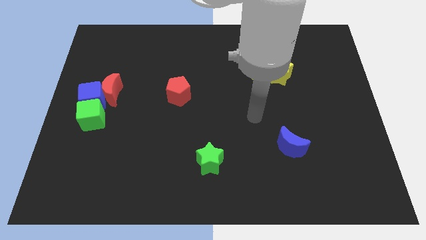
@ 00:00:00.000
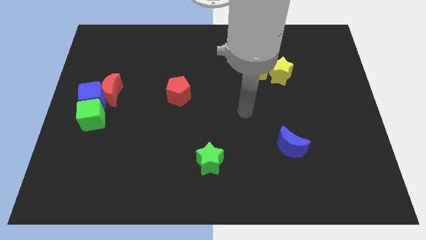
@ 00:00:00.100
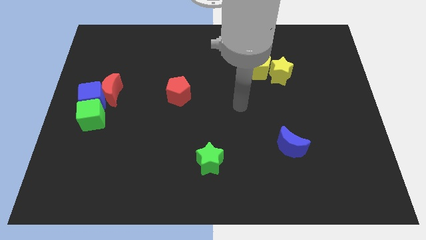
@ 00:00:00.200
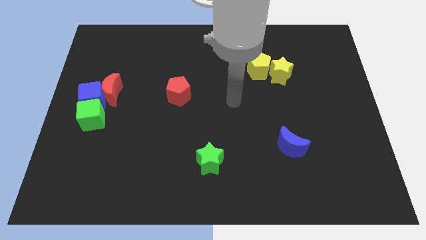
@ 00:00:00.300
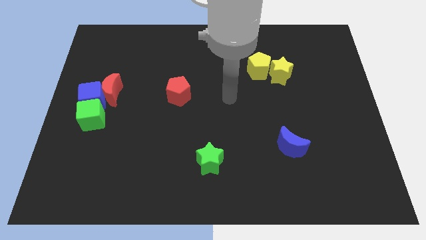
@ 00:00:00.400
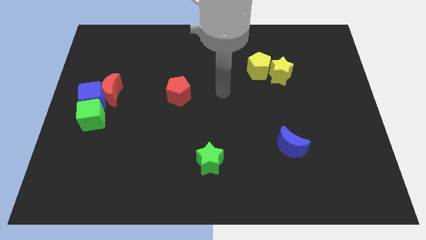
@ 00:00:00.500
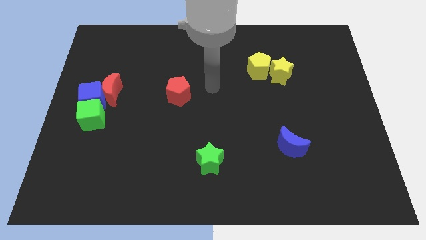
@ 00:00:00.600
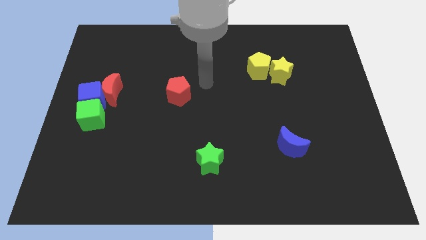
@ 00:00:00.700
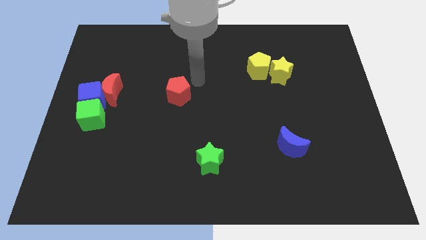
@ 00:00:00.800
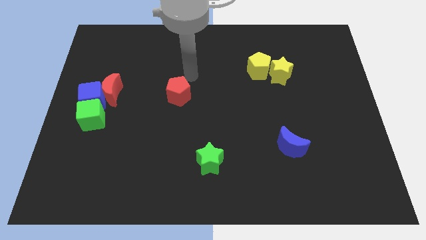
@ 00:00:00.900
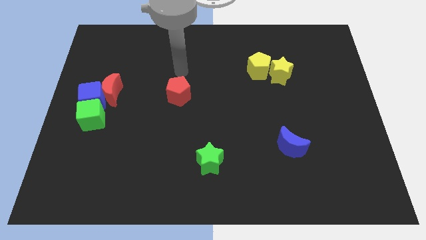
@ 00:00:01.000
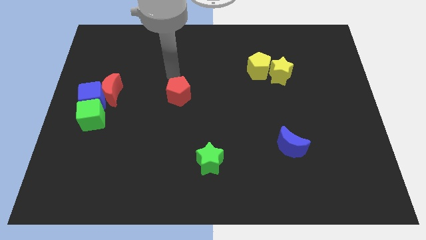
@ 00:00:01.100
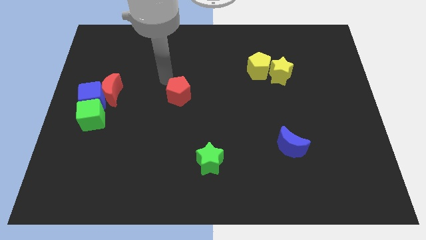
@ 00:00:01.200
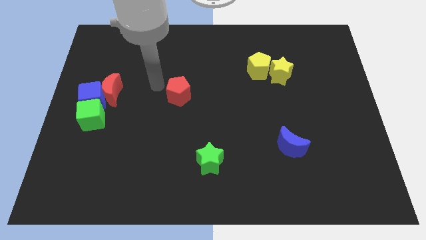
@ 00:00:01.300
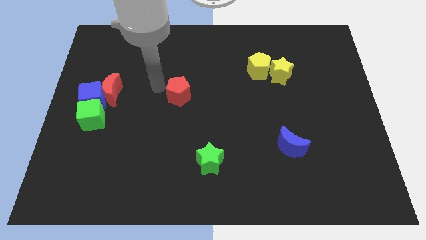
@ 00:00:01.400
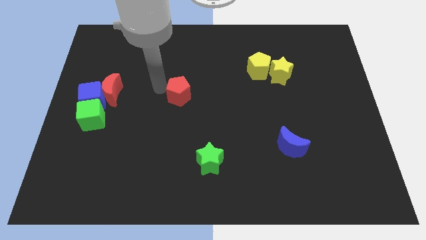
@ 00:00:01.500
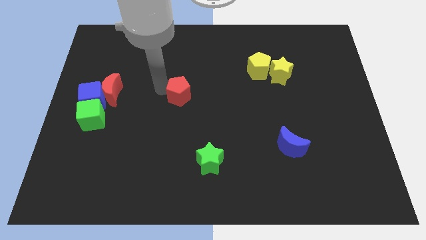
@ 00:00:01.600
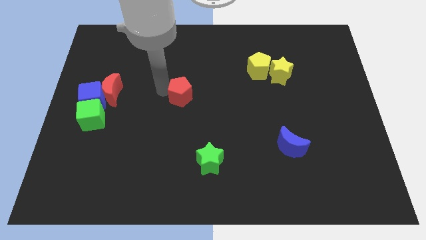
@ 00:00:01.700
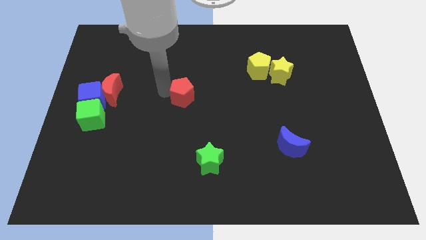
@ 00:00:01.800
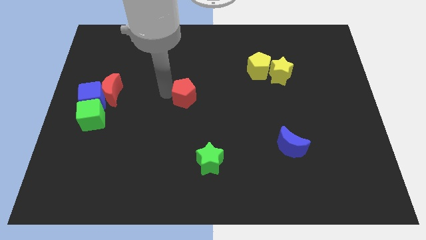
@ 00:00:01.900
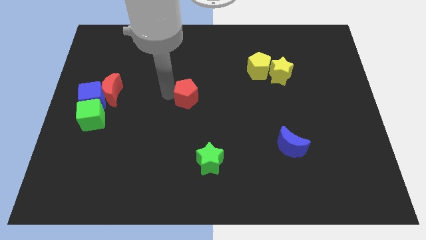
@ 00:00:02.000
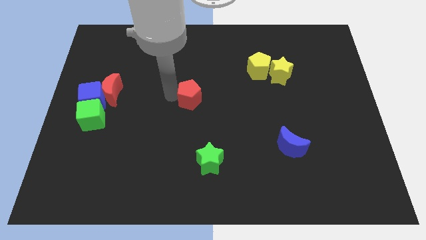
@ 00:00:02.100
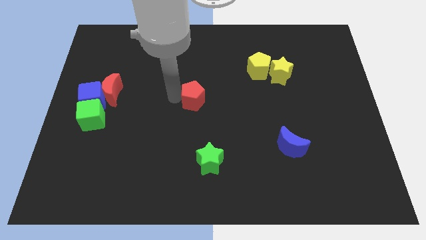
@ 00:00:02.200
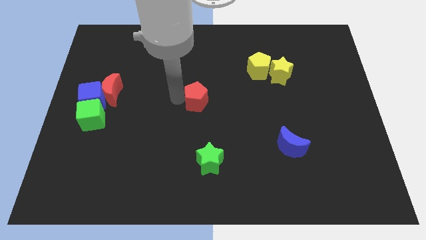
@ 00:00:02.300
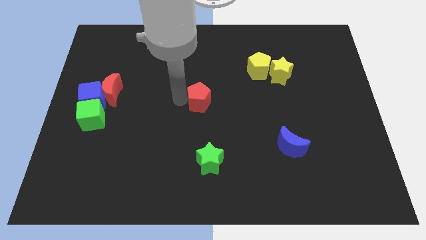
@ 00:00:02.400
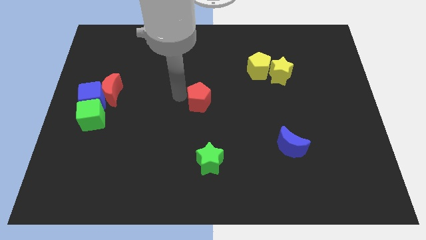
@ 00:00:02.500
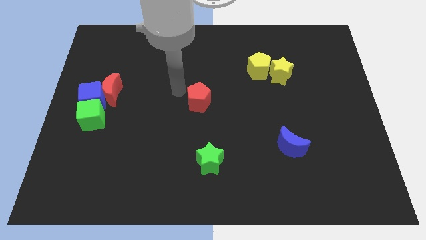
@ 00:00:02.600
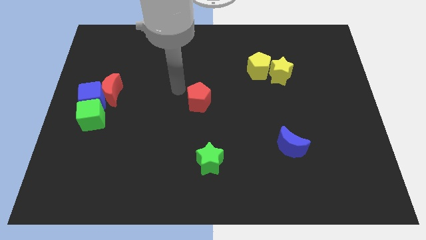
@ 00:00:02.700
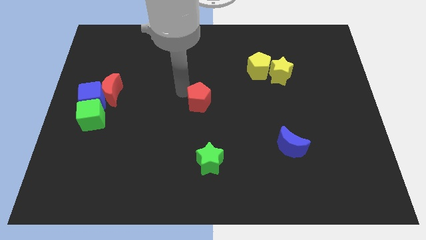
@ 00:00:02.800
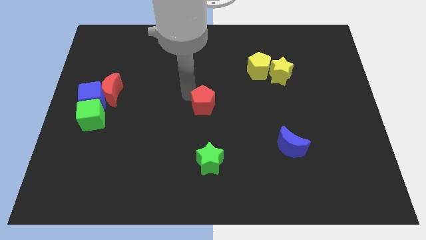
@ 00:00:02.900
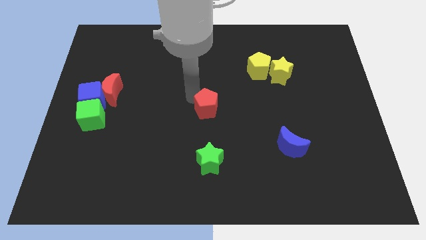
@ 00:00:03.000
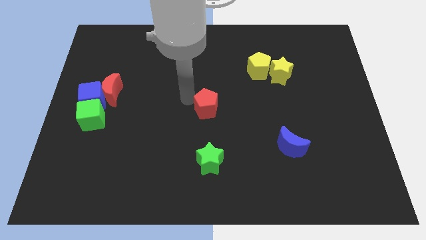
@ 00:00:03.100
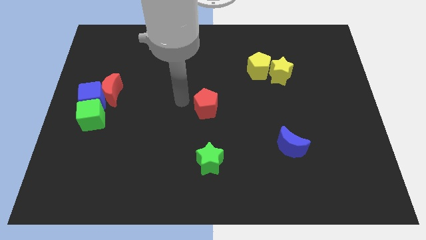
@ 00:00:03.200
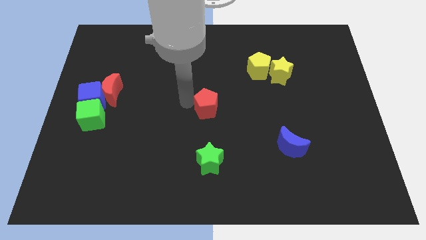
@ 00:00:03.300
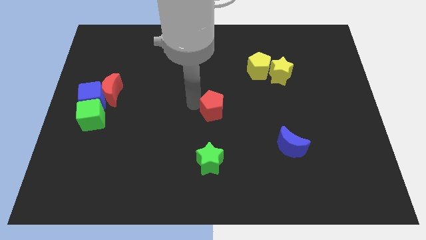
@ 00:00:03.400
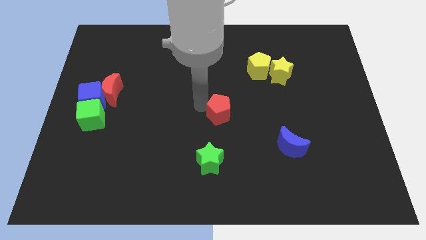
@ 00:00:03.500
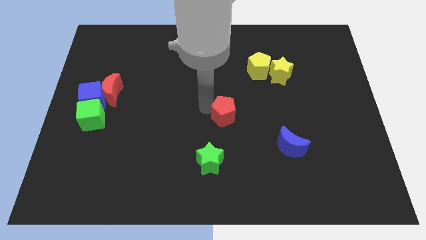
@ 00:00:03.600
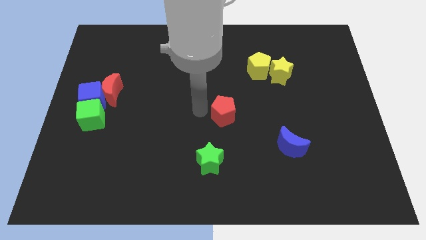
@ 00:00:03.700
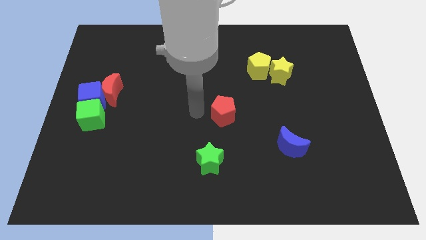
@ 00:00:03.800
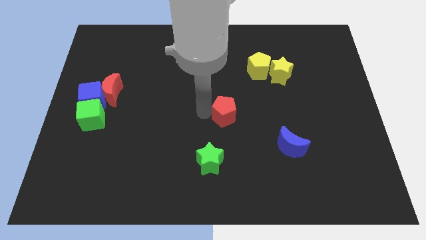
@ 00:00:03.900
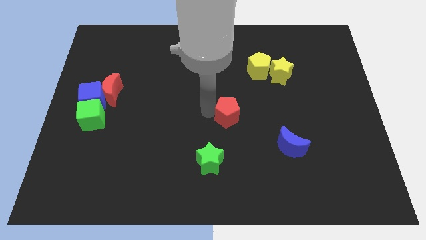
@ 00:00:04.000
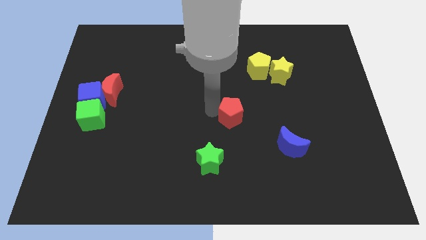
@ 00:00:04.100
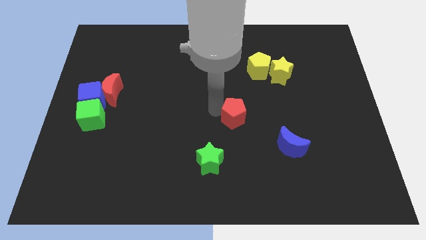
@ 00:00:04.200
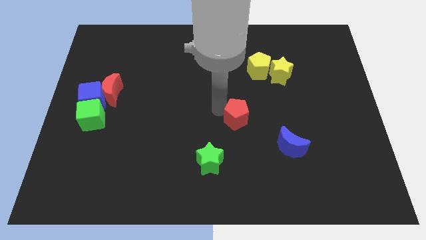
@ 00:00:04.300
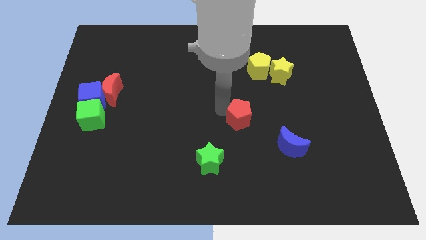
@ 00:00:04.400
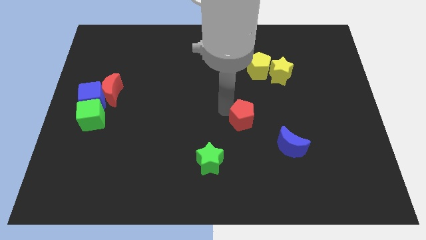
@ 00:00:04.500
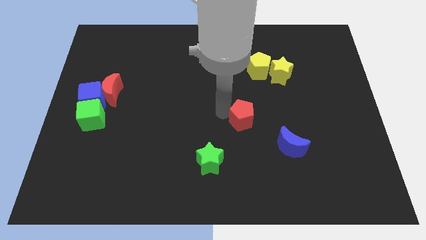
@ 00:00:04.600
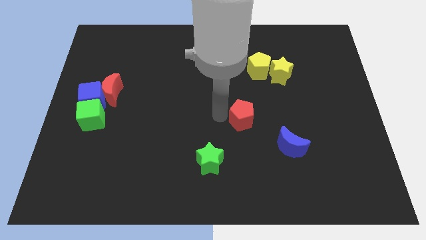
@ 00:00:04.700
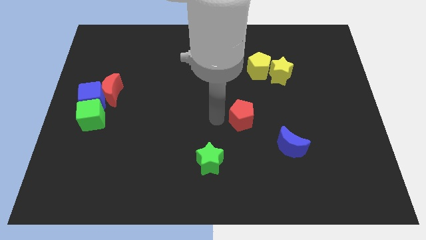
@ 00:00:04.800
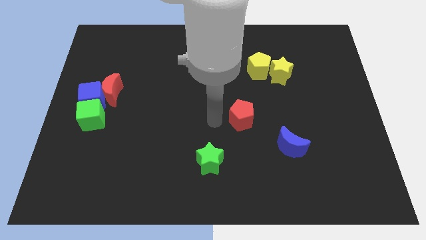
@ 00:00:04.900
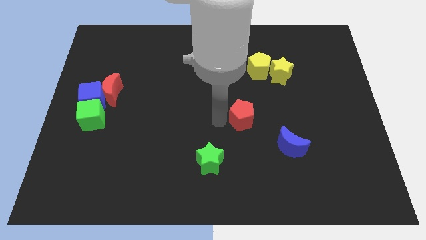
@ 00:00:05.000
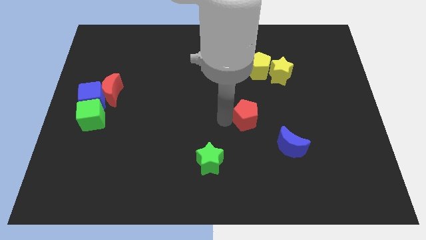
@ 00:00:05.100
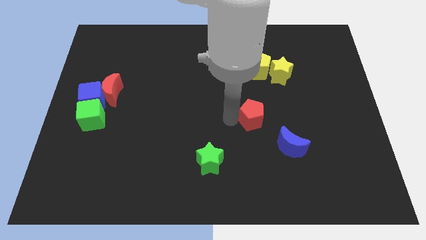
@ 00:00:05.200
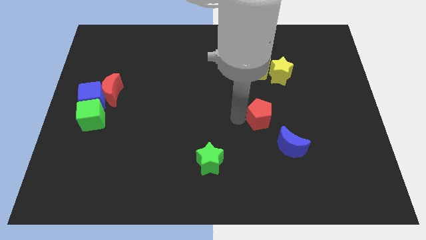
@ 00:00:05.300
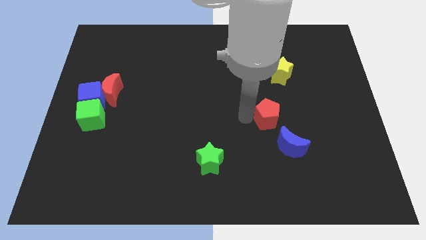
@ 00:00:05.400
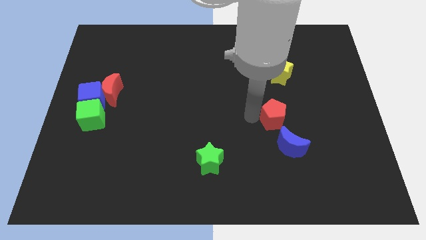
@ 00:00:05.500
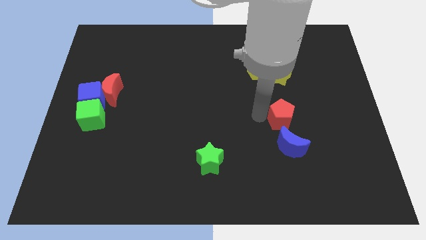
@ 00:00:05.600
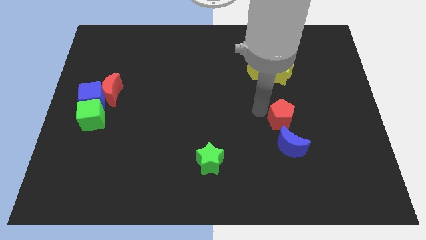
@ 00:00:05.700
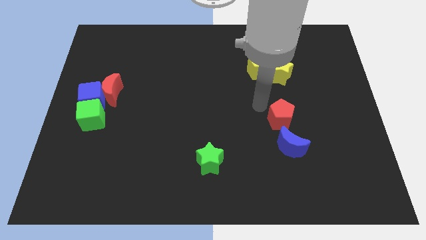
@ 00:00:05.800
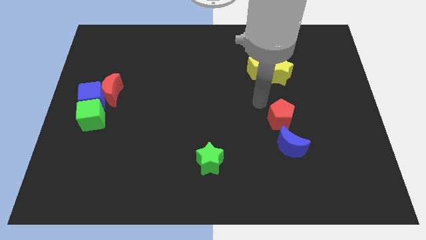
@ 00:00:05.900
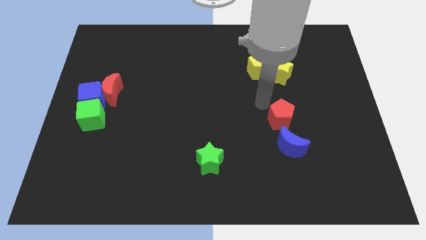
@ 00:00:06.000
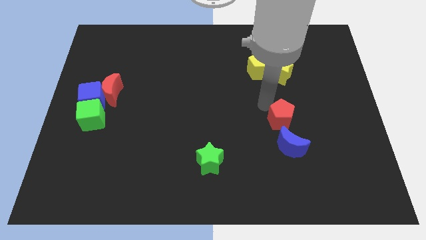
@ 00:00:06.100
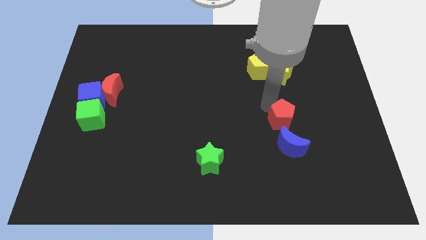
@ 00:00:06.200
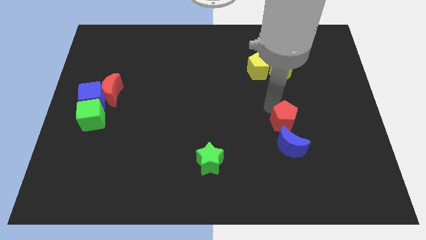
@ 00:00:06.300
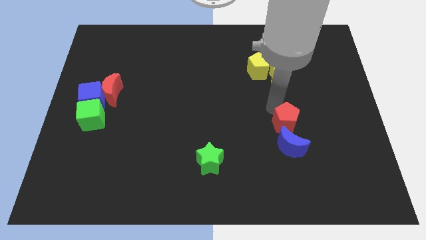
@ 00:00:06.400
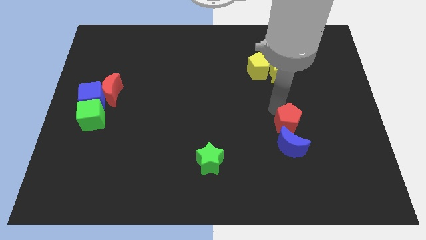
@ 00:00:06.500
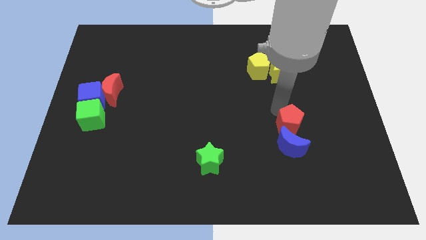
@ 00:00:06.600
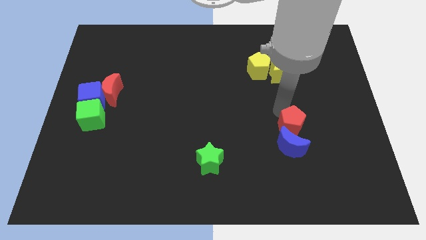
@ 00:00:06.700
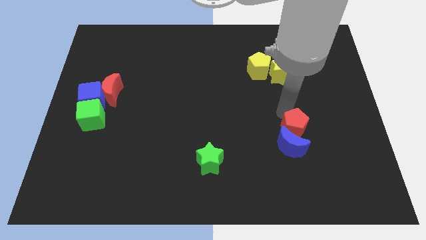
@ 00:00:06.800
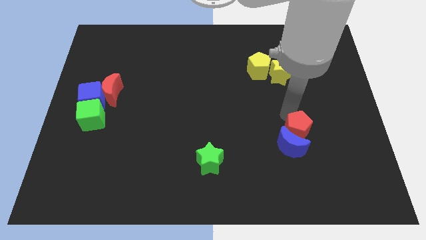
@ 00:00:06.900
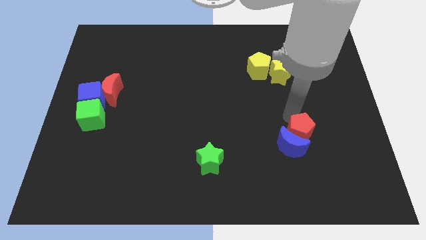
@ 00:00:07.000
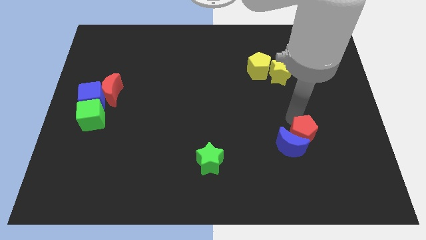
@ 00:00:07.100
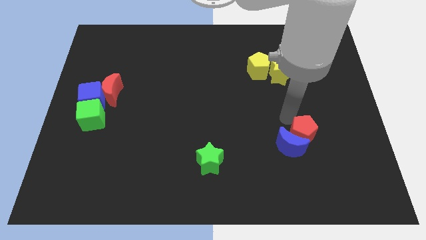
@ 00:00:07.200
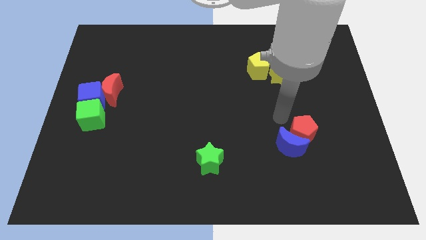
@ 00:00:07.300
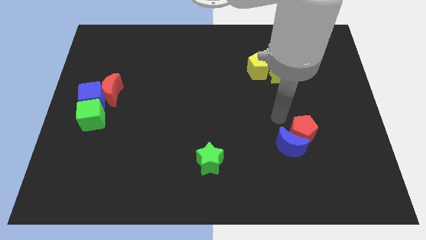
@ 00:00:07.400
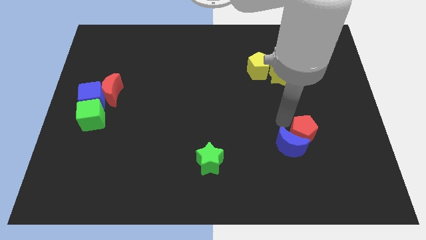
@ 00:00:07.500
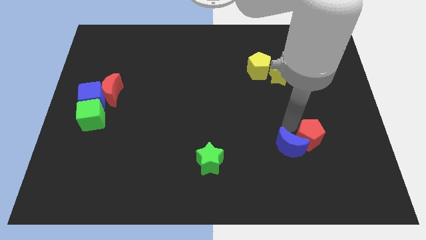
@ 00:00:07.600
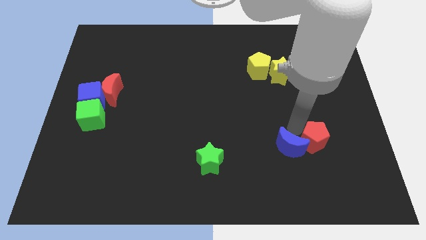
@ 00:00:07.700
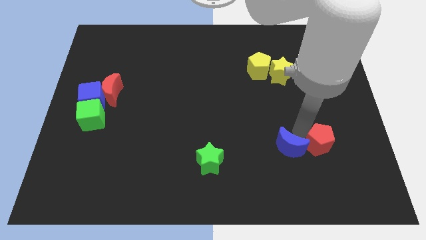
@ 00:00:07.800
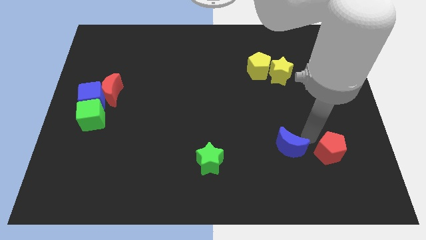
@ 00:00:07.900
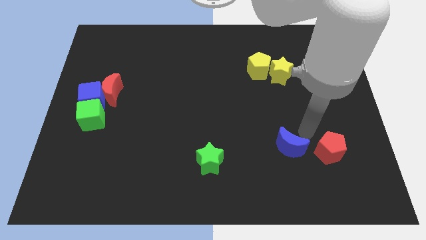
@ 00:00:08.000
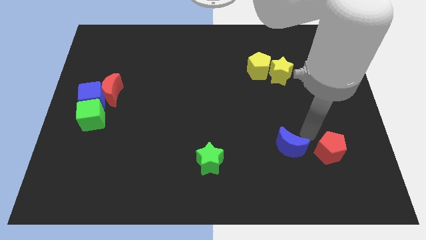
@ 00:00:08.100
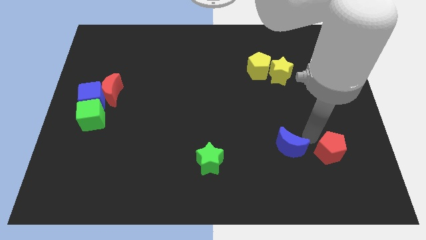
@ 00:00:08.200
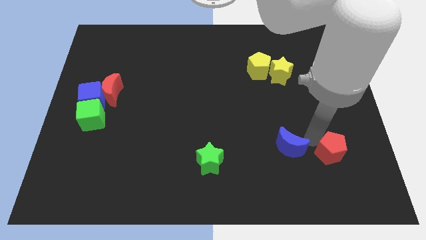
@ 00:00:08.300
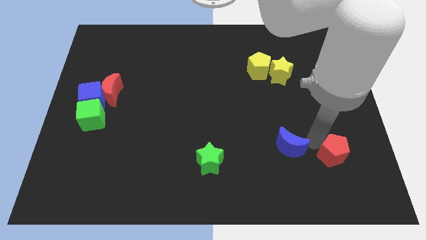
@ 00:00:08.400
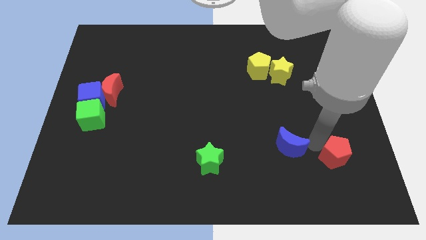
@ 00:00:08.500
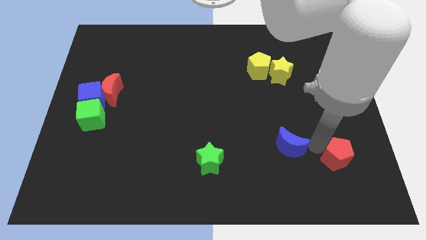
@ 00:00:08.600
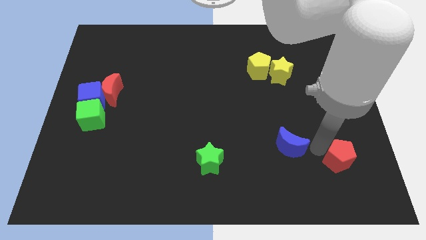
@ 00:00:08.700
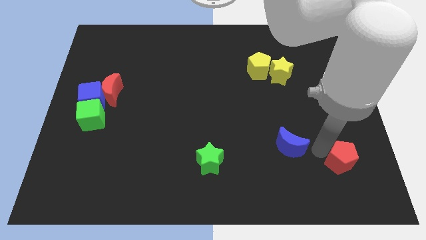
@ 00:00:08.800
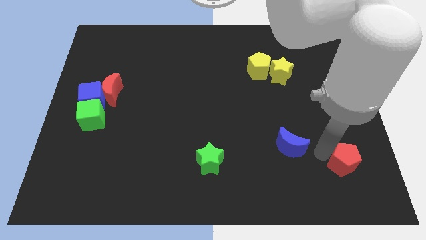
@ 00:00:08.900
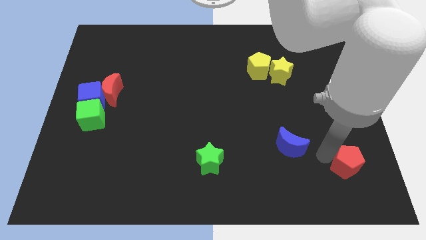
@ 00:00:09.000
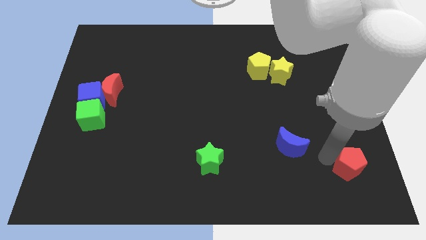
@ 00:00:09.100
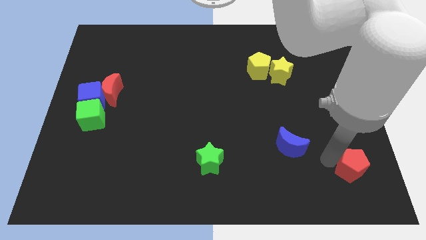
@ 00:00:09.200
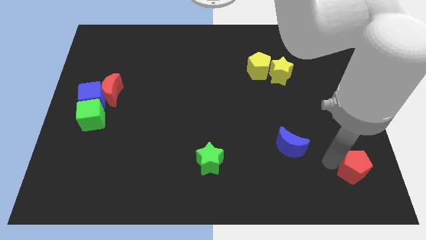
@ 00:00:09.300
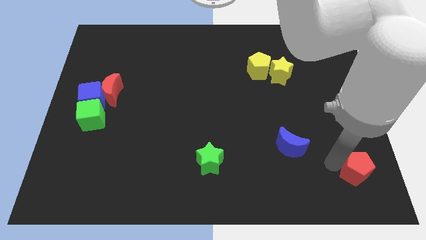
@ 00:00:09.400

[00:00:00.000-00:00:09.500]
slide the red pentagon to the bottom right
